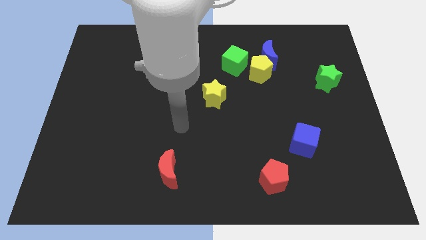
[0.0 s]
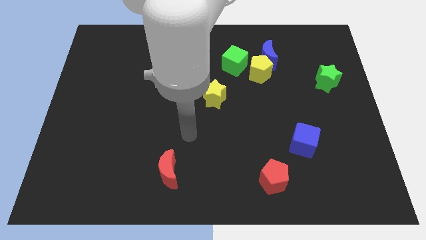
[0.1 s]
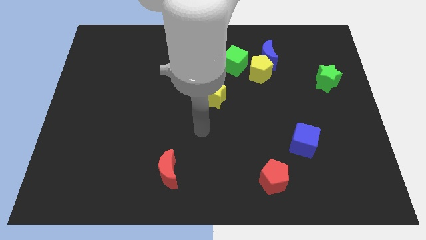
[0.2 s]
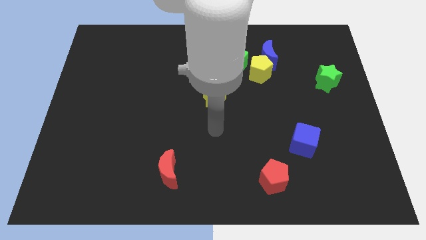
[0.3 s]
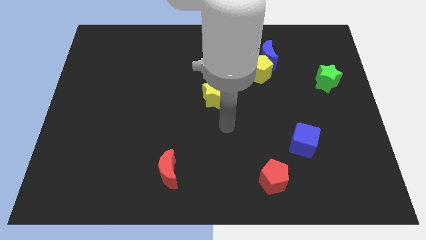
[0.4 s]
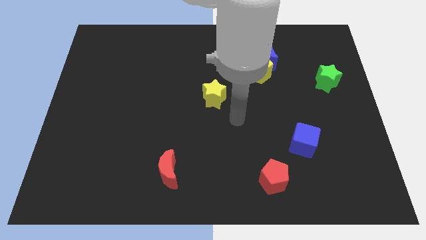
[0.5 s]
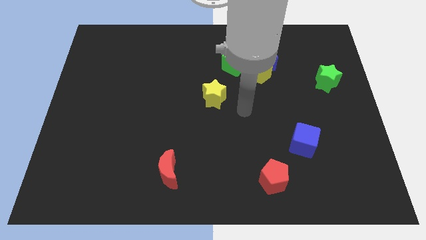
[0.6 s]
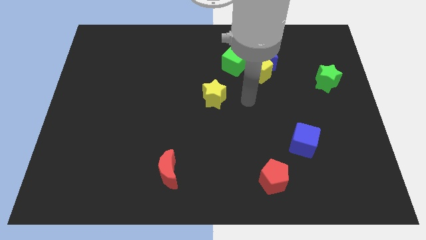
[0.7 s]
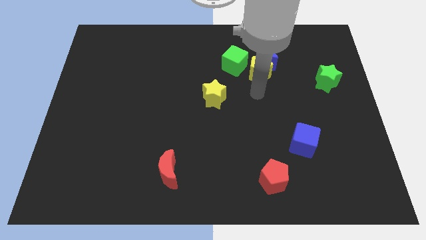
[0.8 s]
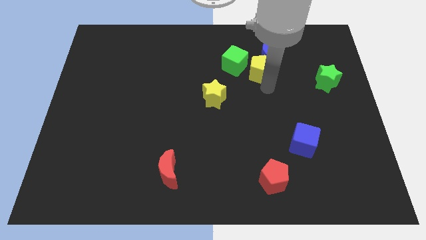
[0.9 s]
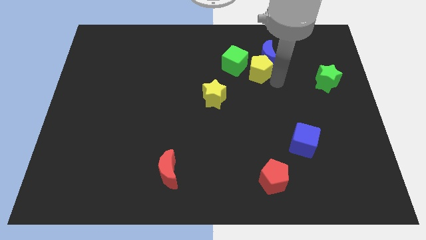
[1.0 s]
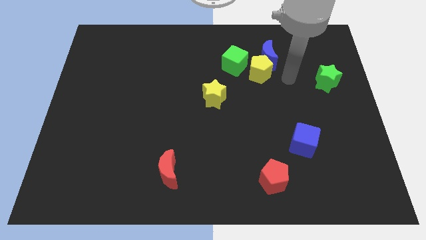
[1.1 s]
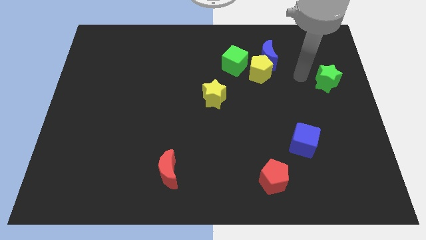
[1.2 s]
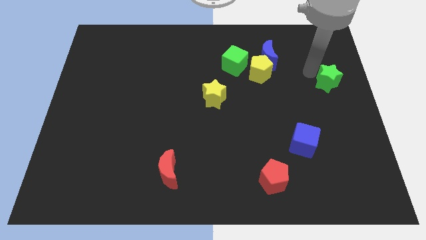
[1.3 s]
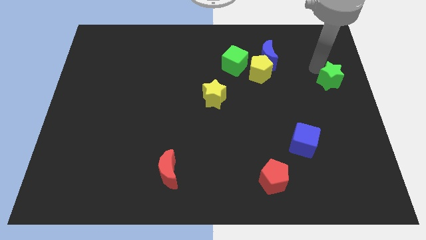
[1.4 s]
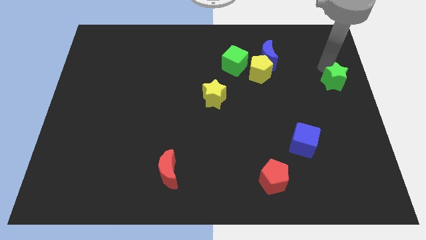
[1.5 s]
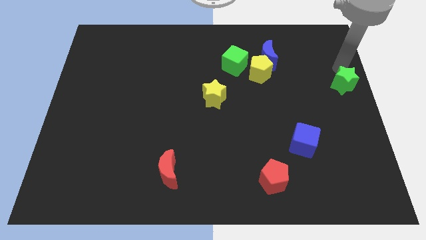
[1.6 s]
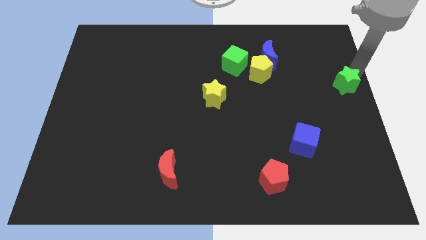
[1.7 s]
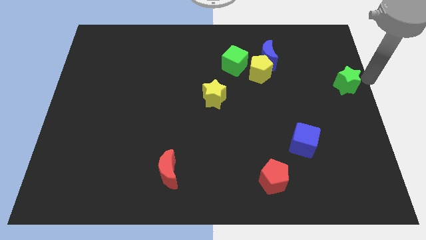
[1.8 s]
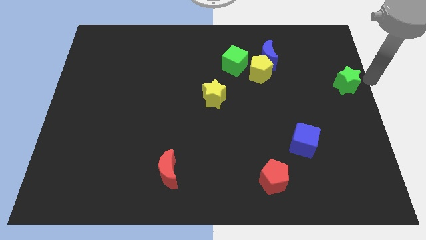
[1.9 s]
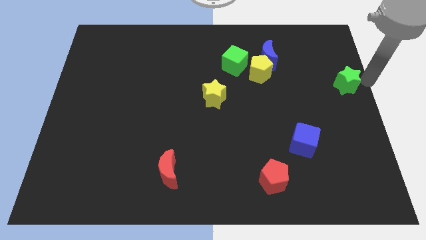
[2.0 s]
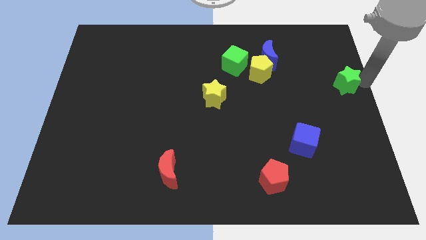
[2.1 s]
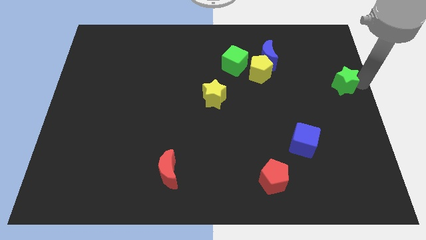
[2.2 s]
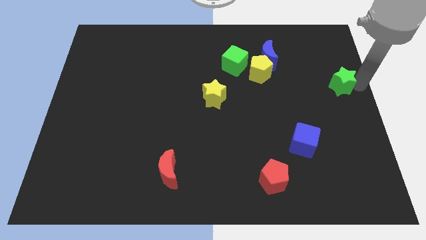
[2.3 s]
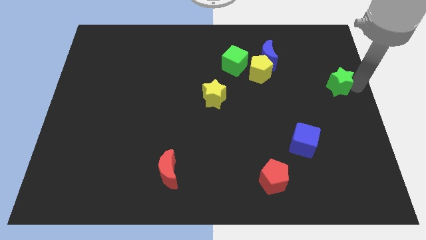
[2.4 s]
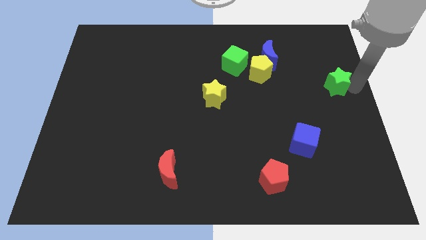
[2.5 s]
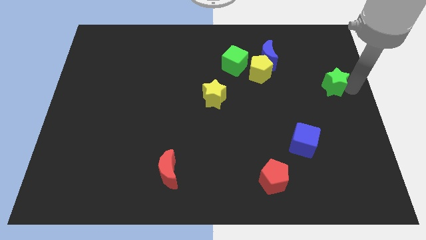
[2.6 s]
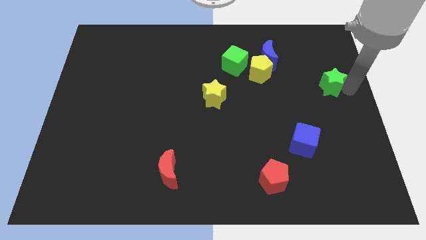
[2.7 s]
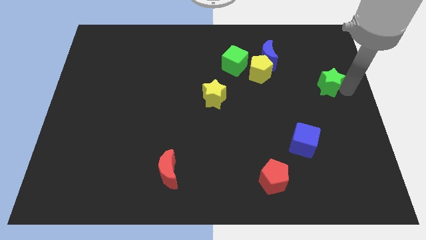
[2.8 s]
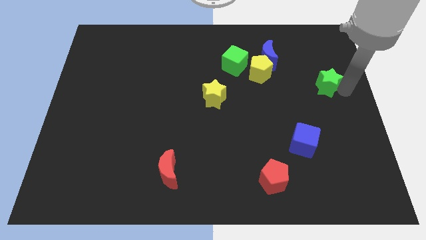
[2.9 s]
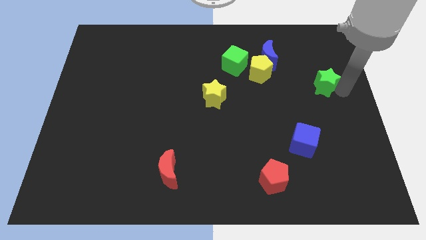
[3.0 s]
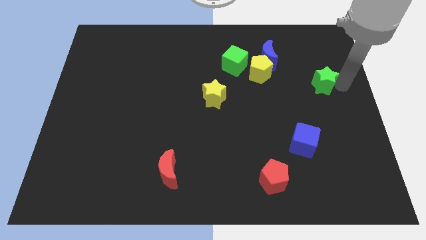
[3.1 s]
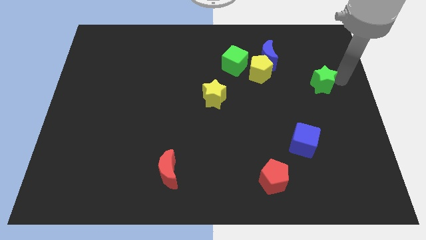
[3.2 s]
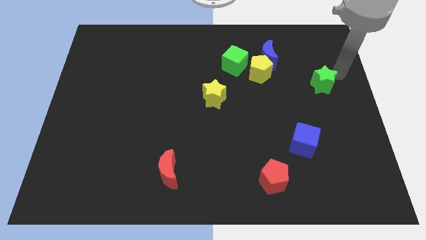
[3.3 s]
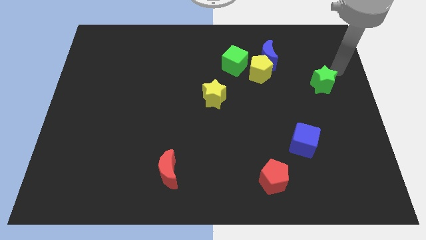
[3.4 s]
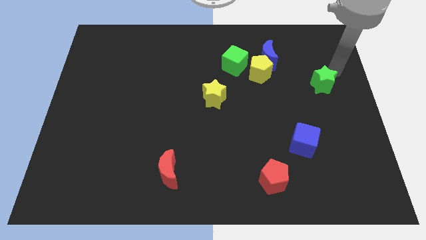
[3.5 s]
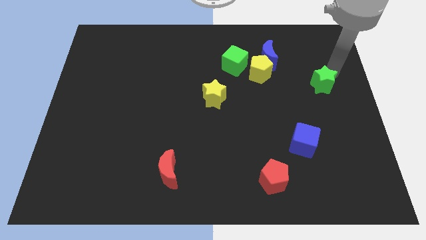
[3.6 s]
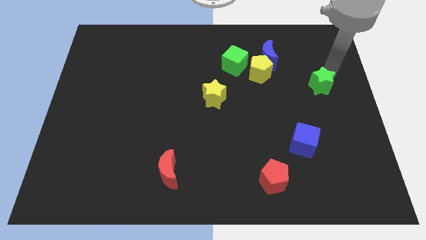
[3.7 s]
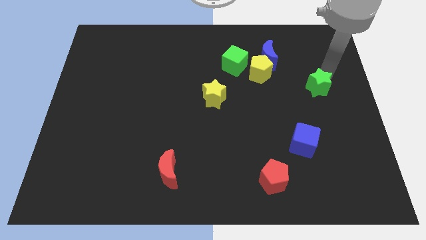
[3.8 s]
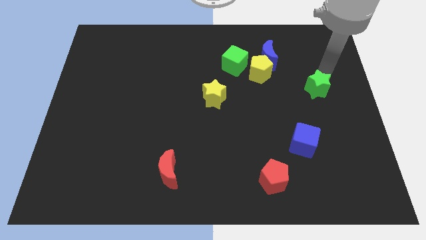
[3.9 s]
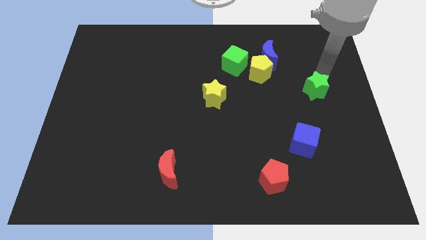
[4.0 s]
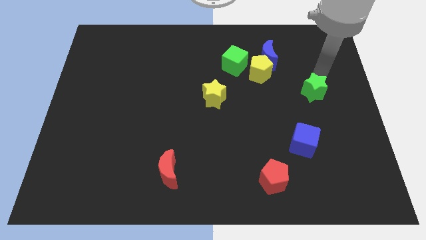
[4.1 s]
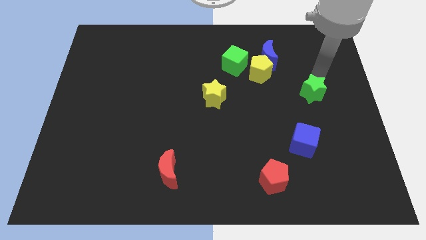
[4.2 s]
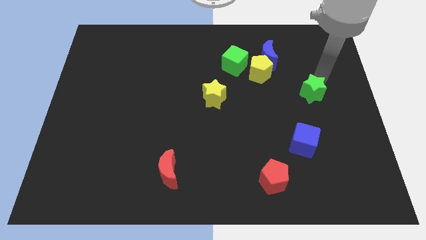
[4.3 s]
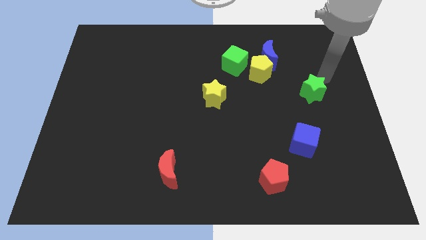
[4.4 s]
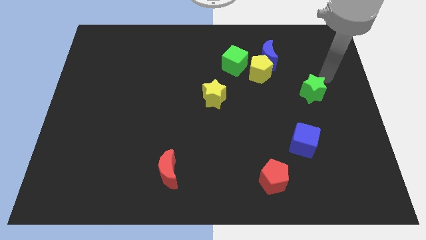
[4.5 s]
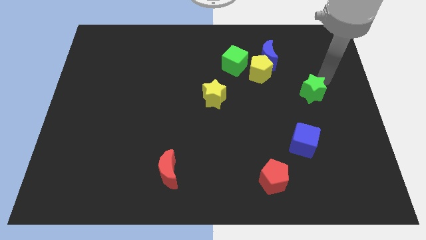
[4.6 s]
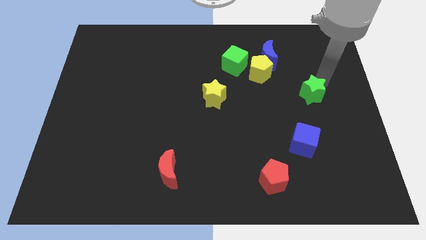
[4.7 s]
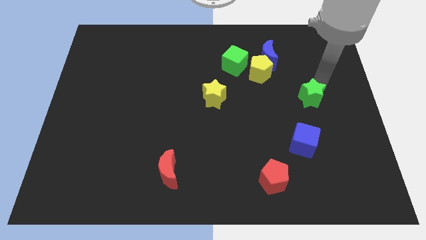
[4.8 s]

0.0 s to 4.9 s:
slightly slide the green star down and left

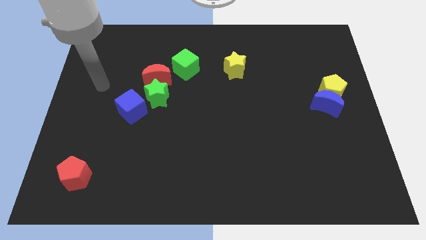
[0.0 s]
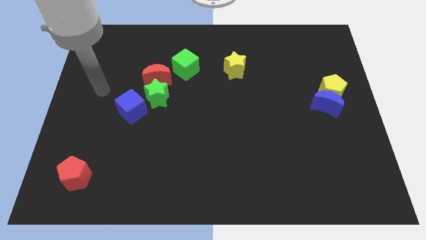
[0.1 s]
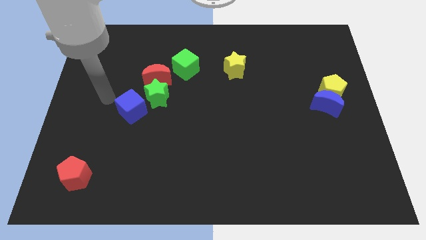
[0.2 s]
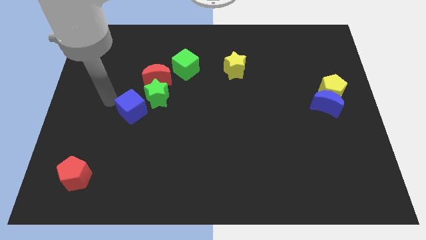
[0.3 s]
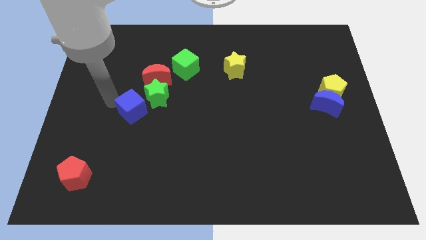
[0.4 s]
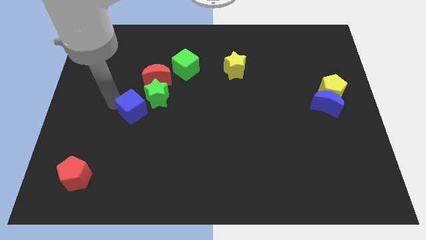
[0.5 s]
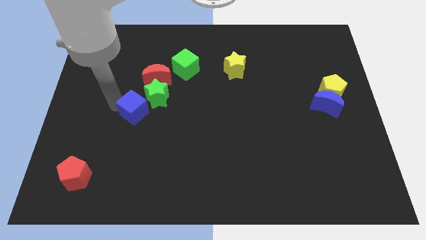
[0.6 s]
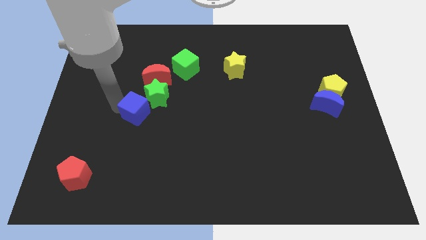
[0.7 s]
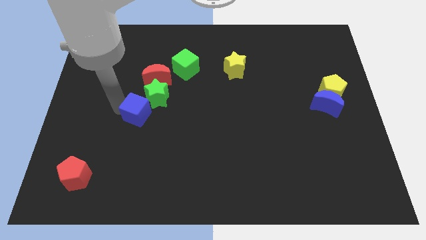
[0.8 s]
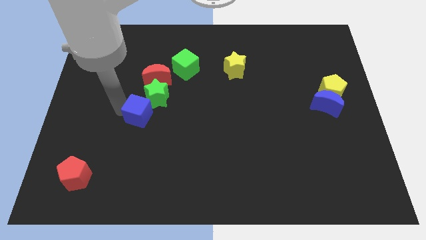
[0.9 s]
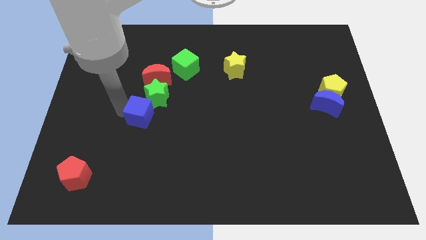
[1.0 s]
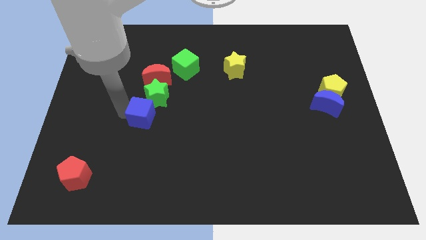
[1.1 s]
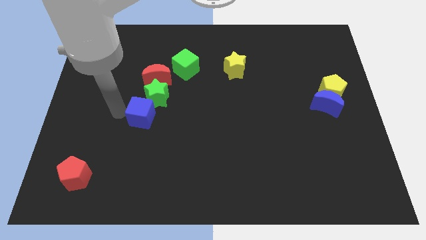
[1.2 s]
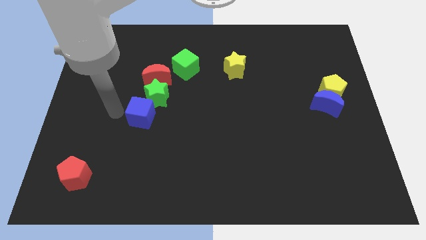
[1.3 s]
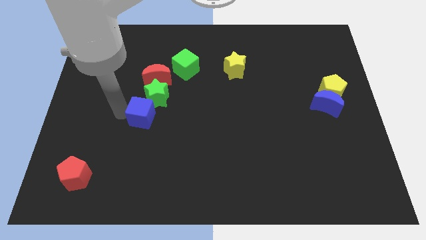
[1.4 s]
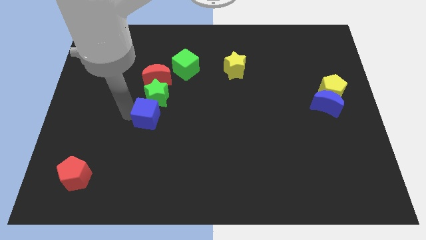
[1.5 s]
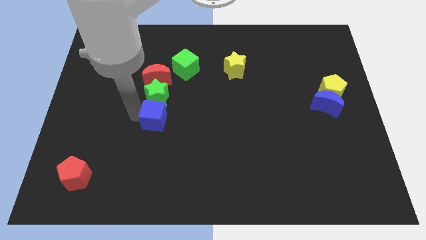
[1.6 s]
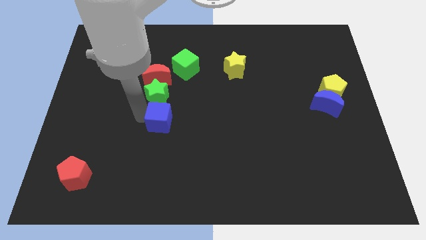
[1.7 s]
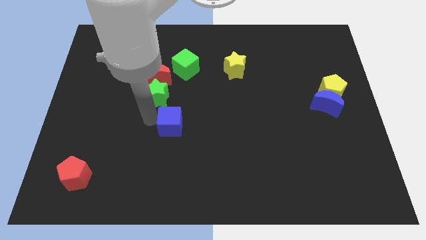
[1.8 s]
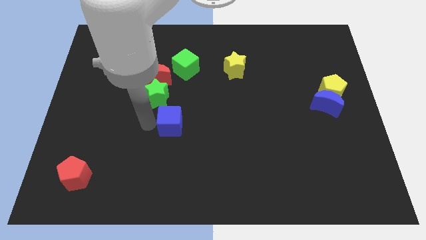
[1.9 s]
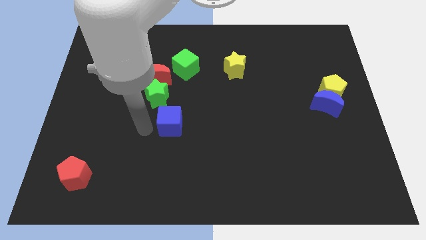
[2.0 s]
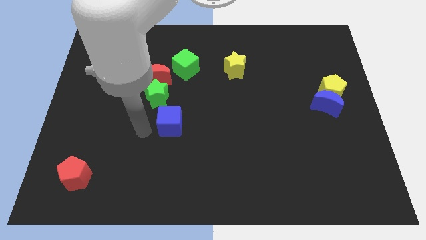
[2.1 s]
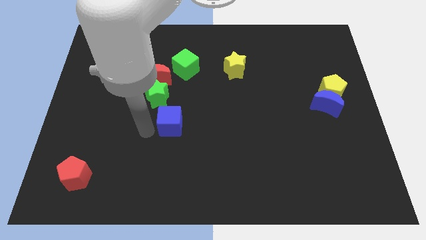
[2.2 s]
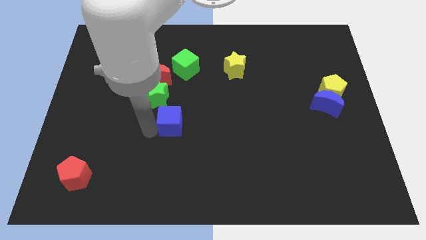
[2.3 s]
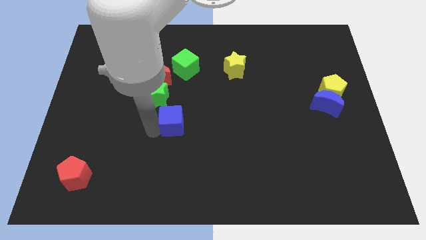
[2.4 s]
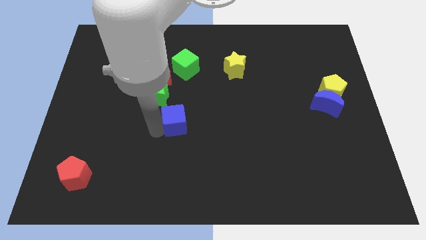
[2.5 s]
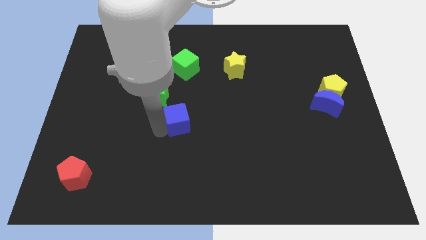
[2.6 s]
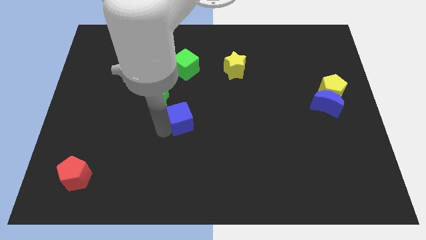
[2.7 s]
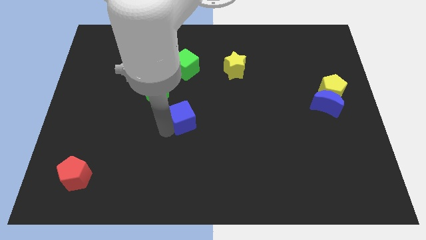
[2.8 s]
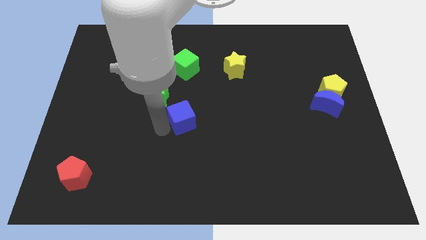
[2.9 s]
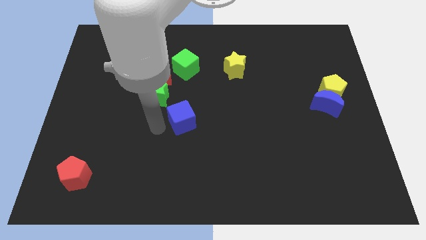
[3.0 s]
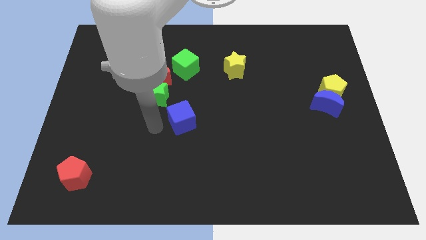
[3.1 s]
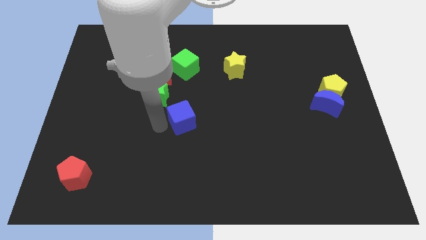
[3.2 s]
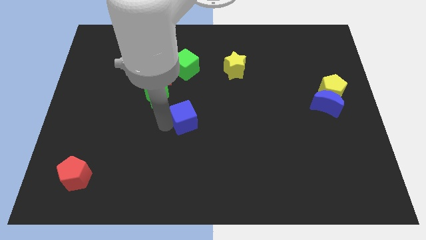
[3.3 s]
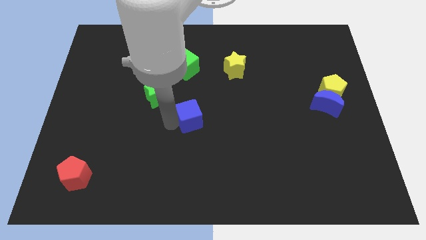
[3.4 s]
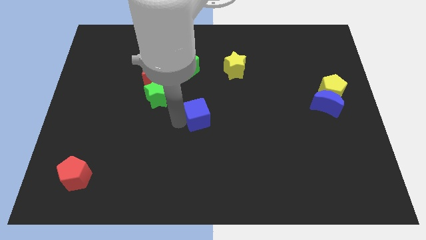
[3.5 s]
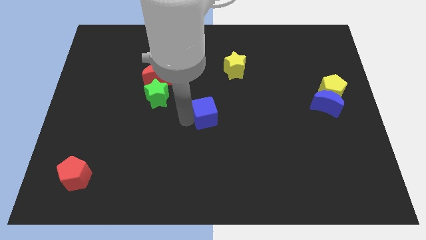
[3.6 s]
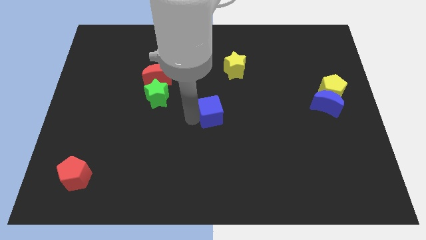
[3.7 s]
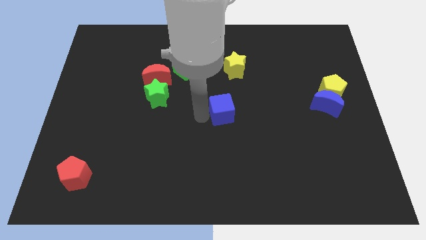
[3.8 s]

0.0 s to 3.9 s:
push the blue cube to the right
